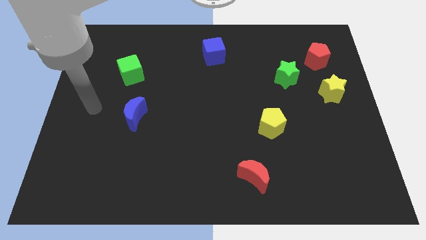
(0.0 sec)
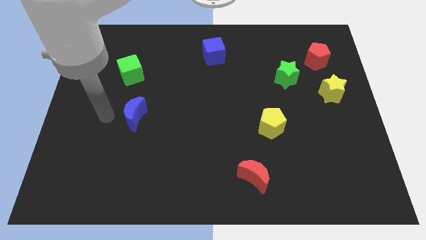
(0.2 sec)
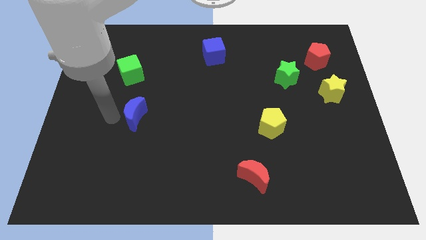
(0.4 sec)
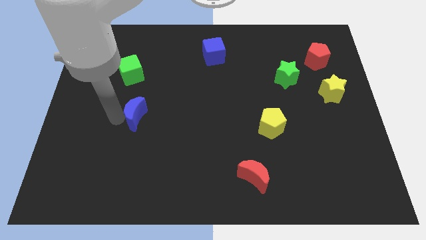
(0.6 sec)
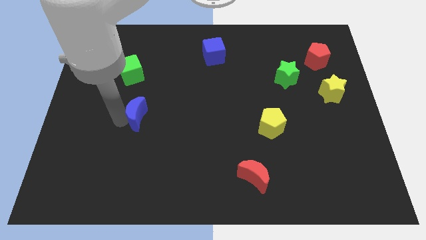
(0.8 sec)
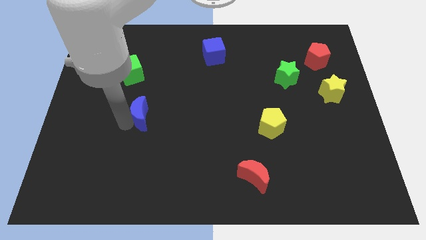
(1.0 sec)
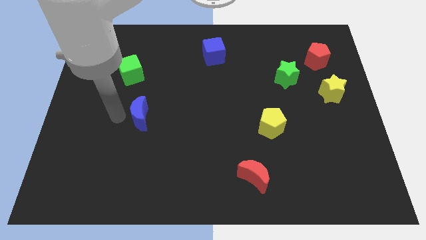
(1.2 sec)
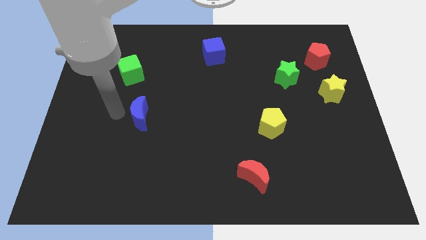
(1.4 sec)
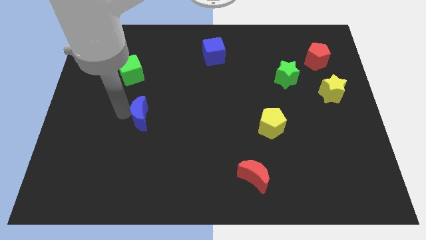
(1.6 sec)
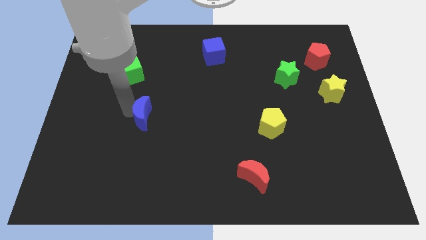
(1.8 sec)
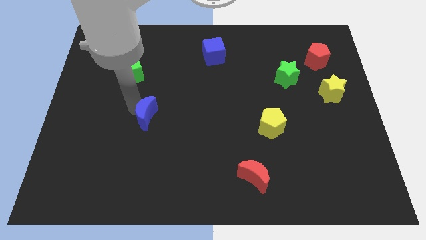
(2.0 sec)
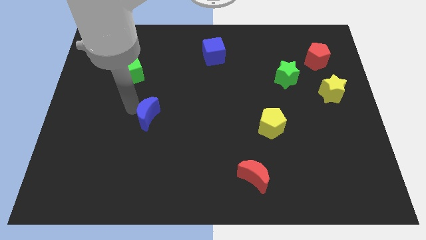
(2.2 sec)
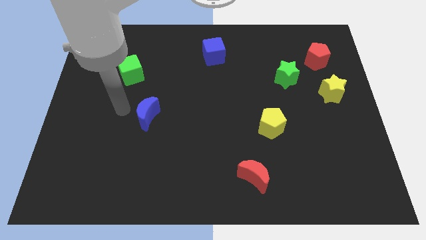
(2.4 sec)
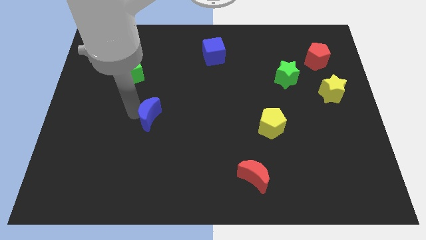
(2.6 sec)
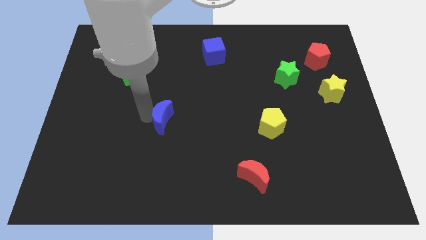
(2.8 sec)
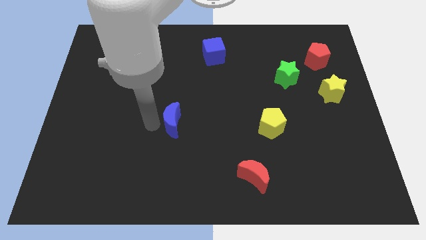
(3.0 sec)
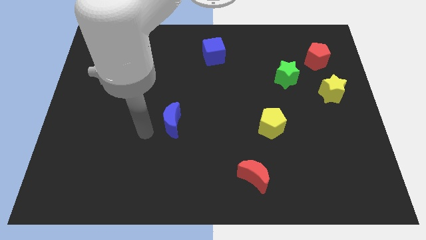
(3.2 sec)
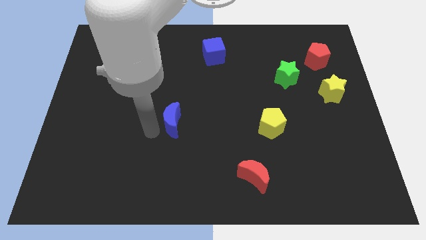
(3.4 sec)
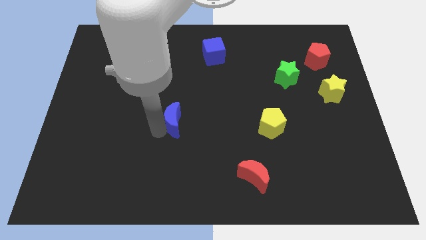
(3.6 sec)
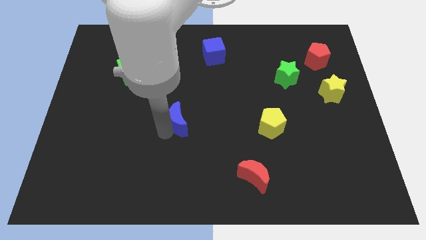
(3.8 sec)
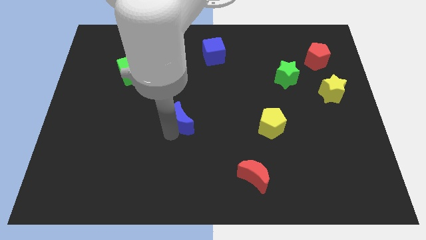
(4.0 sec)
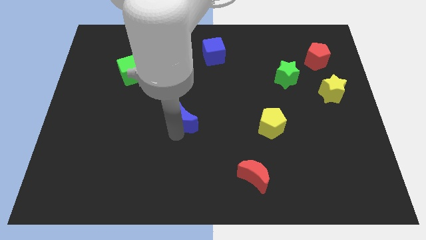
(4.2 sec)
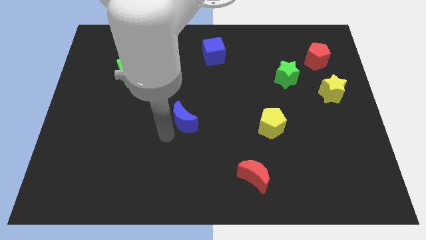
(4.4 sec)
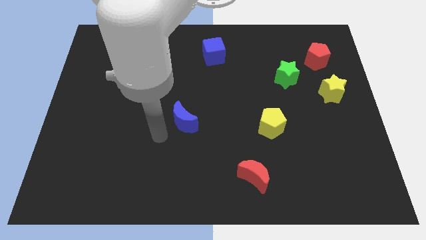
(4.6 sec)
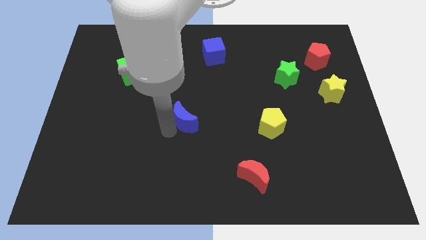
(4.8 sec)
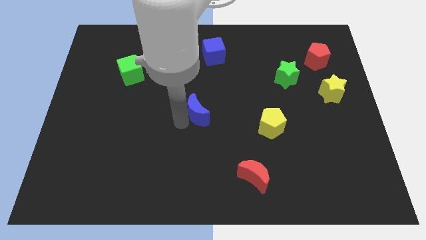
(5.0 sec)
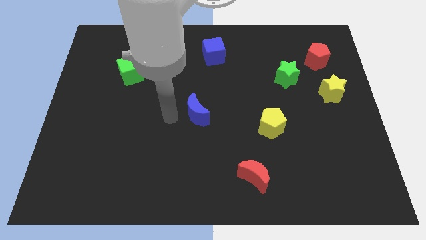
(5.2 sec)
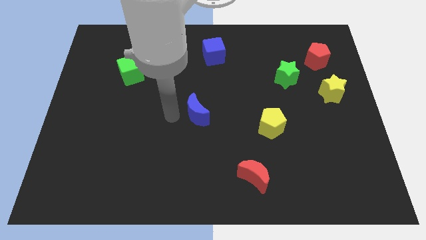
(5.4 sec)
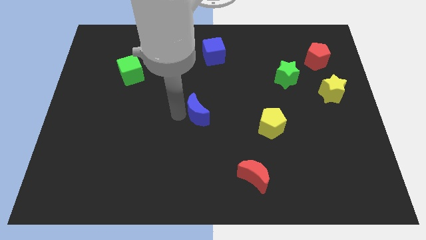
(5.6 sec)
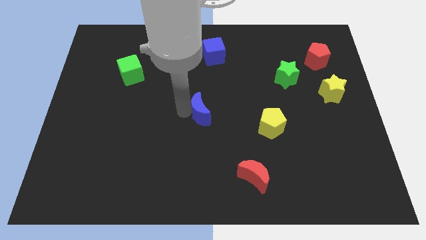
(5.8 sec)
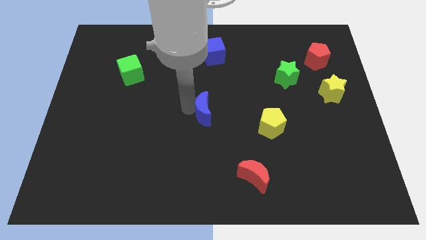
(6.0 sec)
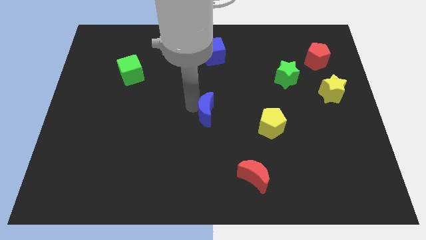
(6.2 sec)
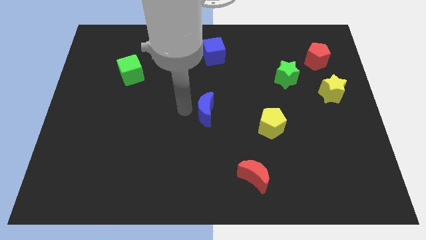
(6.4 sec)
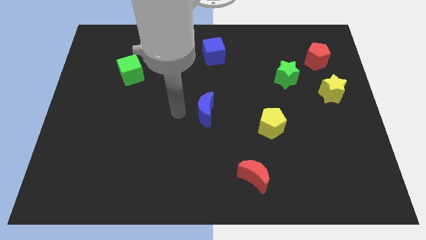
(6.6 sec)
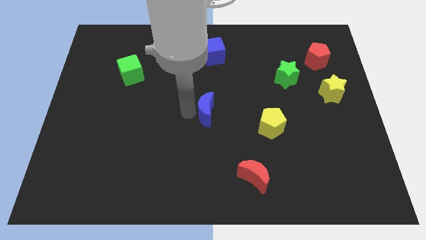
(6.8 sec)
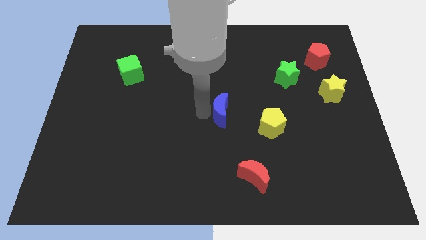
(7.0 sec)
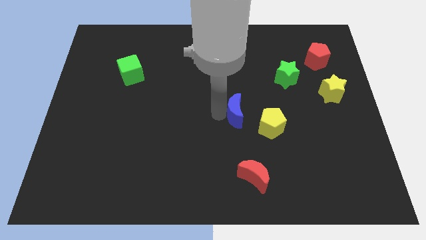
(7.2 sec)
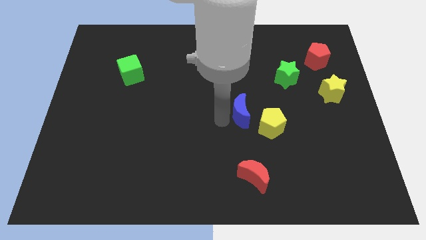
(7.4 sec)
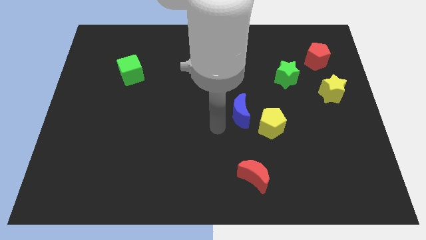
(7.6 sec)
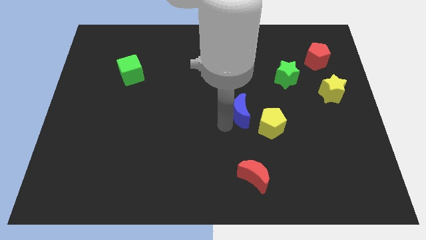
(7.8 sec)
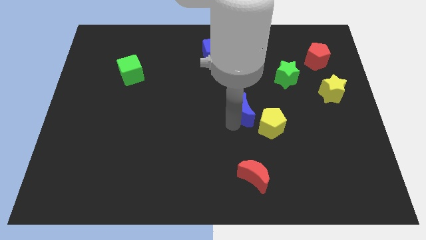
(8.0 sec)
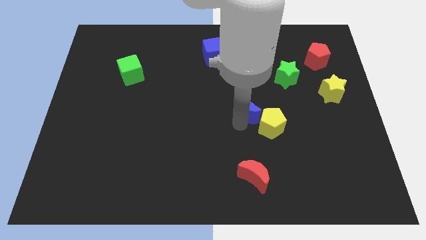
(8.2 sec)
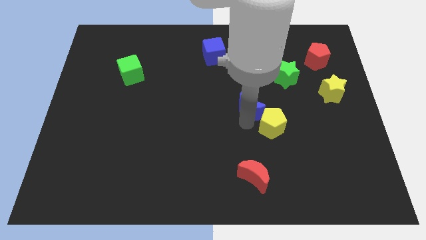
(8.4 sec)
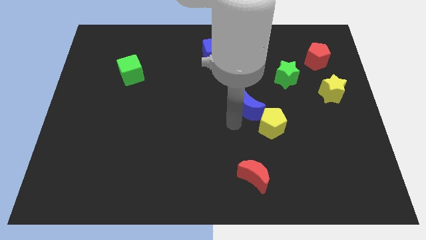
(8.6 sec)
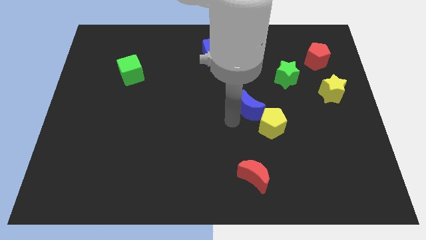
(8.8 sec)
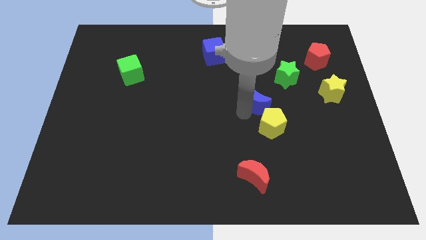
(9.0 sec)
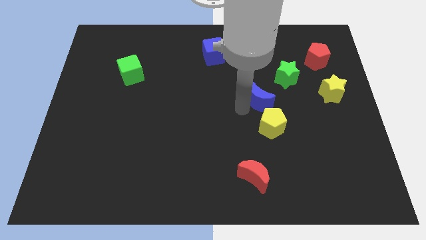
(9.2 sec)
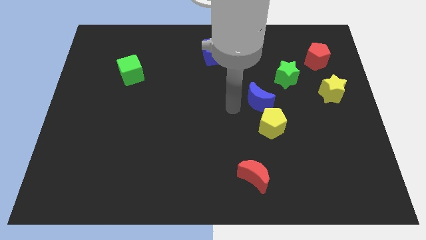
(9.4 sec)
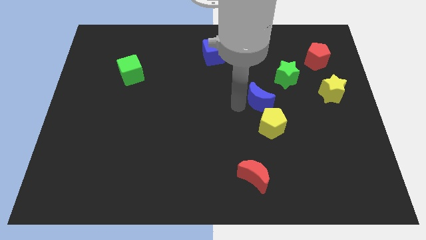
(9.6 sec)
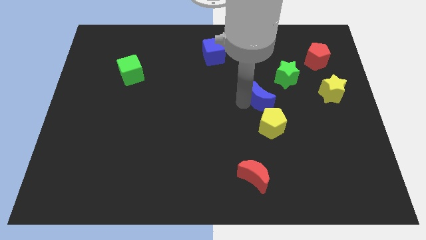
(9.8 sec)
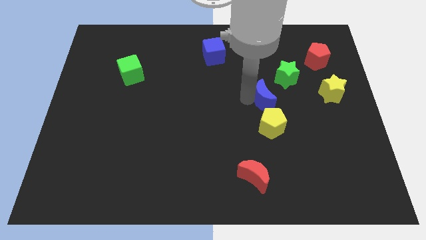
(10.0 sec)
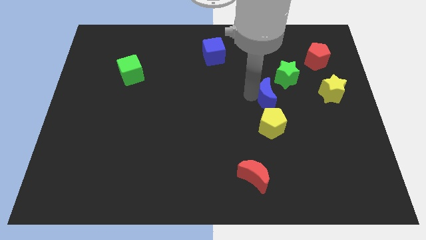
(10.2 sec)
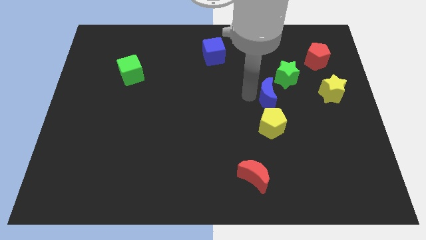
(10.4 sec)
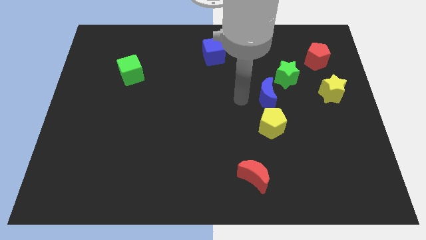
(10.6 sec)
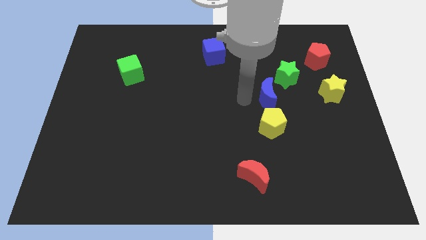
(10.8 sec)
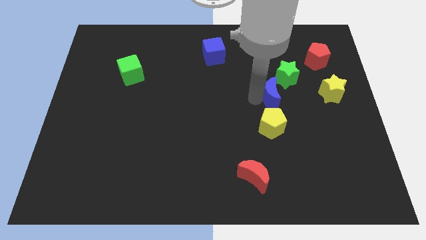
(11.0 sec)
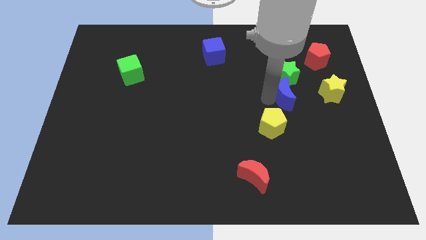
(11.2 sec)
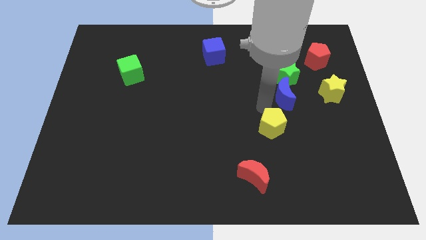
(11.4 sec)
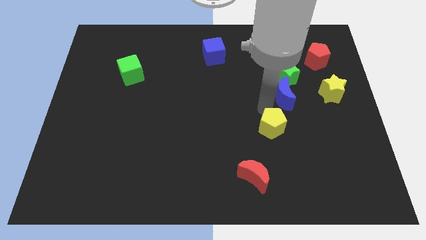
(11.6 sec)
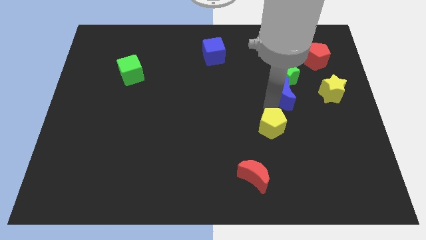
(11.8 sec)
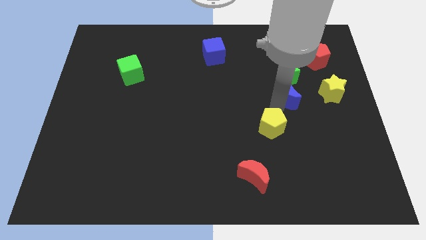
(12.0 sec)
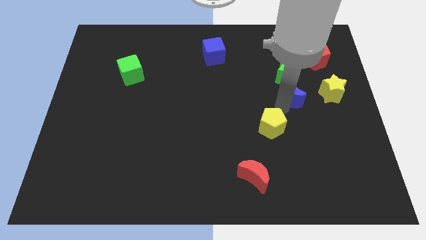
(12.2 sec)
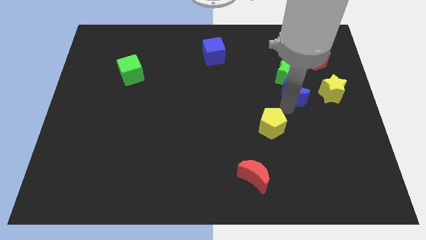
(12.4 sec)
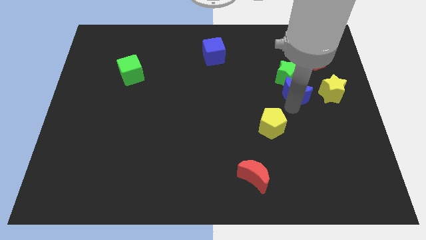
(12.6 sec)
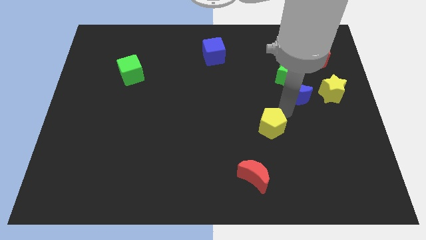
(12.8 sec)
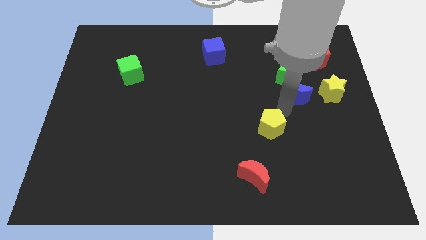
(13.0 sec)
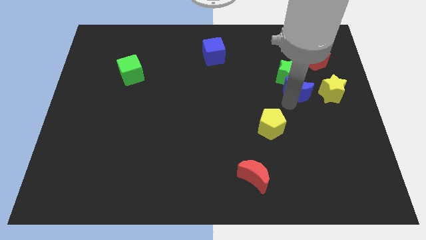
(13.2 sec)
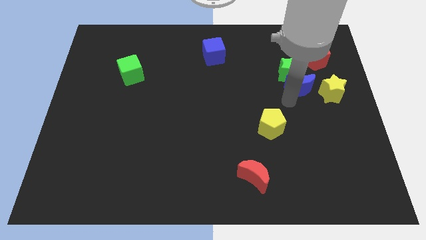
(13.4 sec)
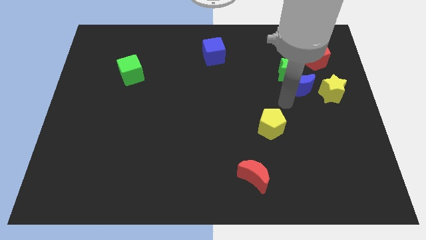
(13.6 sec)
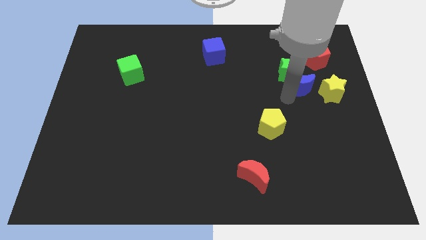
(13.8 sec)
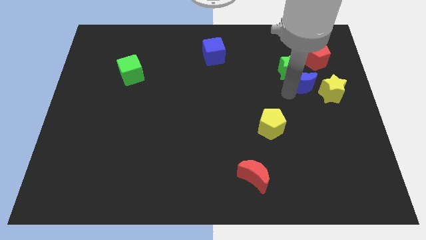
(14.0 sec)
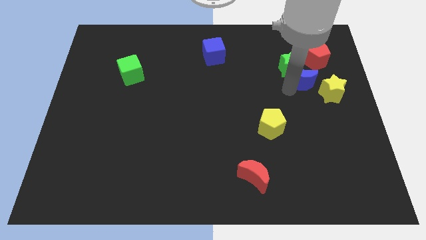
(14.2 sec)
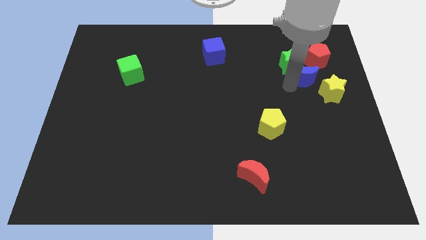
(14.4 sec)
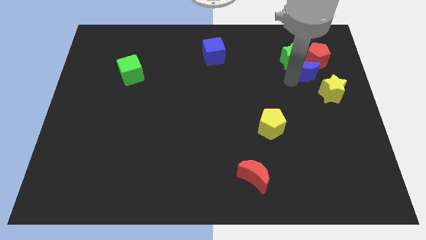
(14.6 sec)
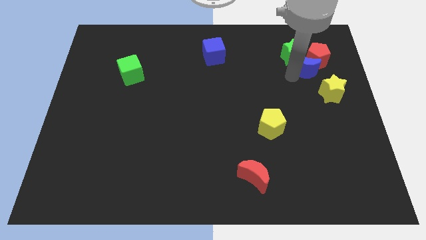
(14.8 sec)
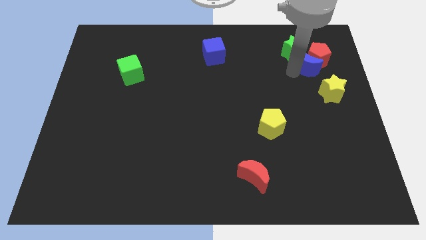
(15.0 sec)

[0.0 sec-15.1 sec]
push the blue moon to the top of the yellow star
